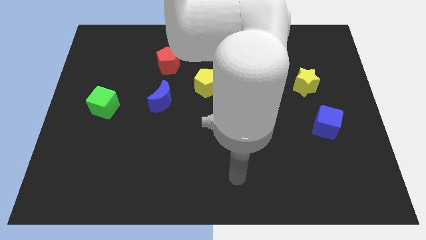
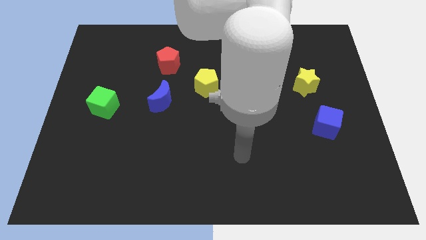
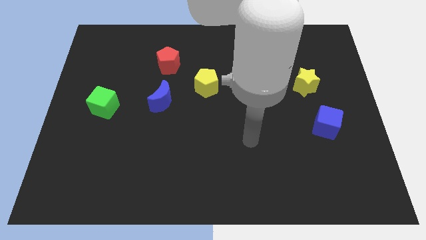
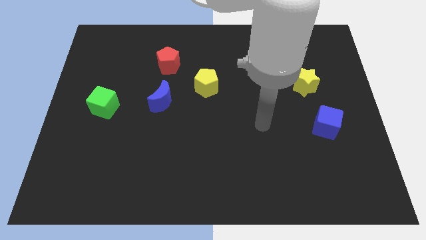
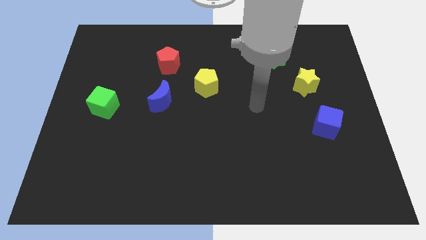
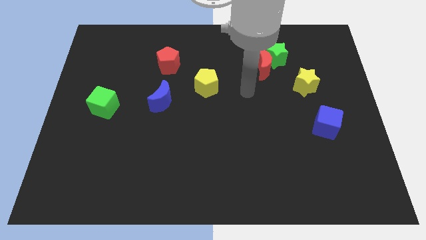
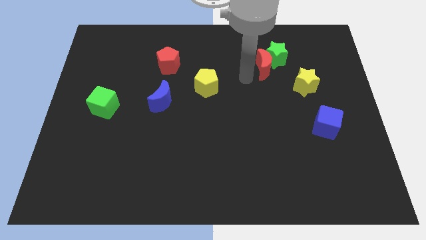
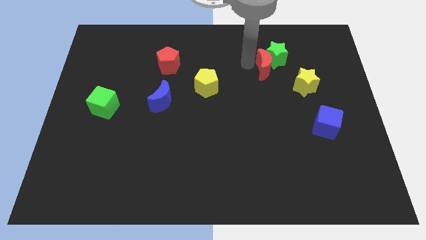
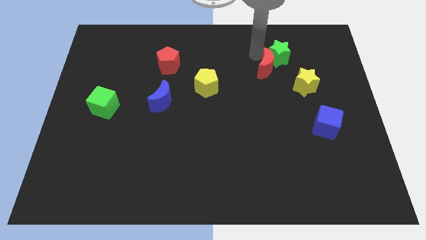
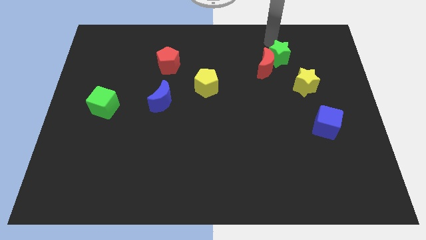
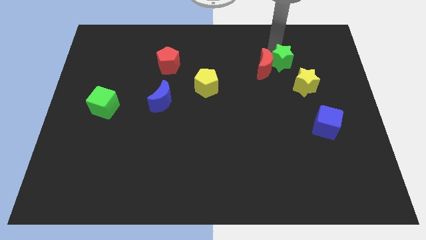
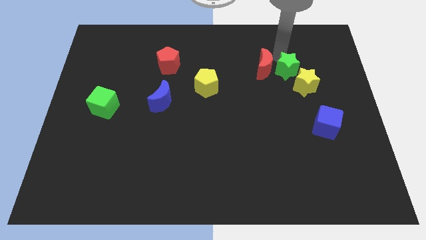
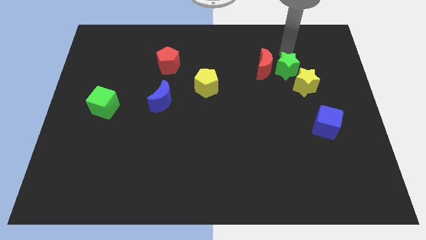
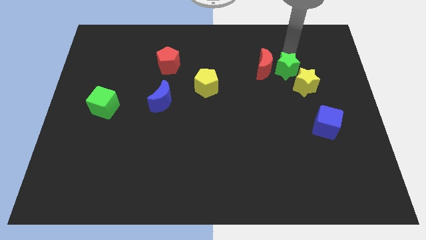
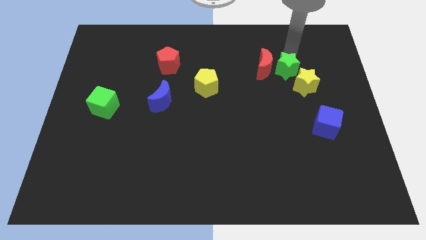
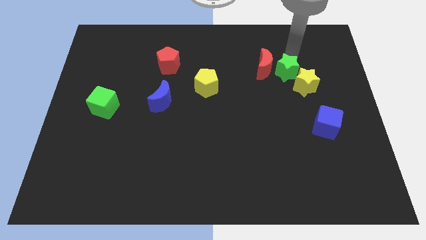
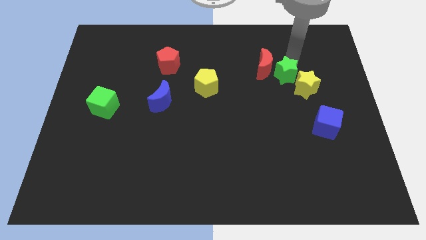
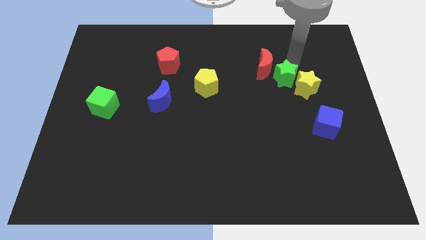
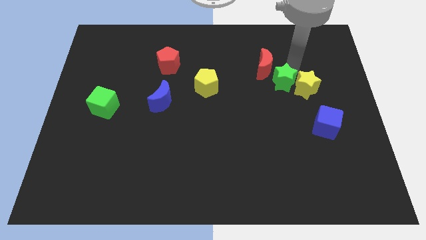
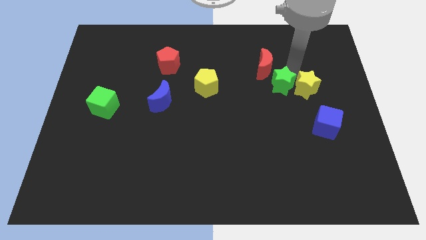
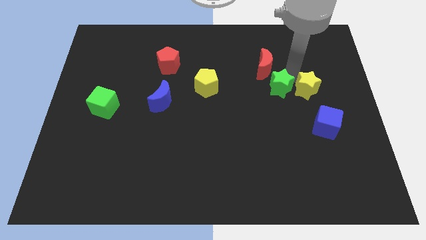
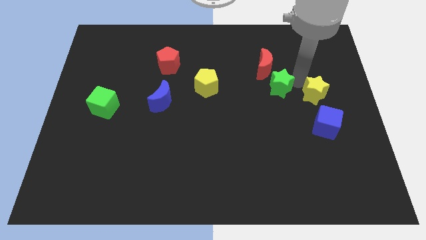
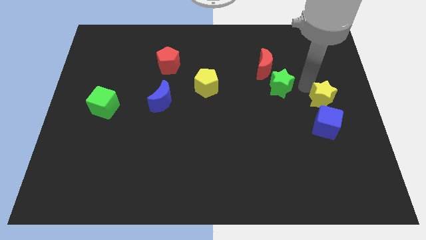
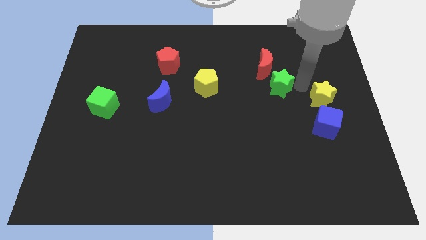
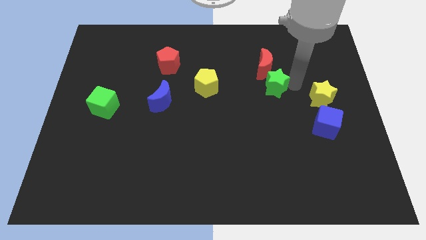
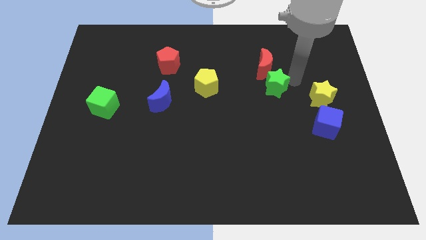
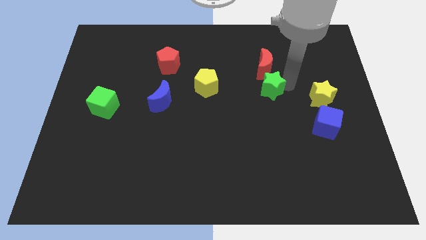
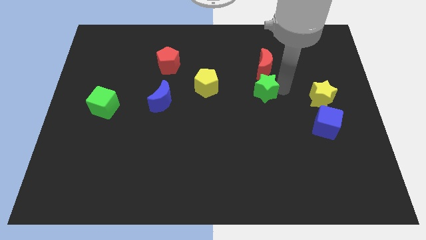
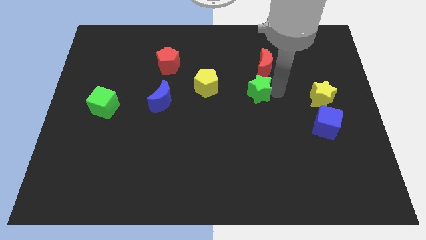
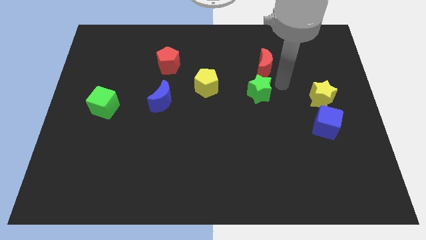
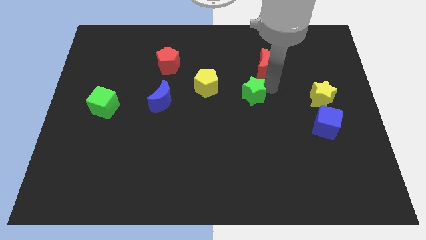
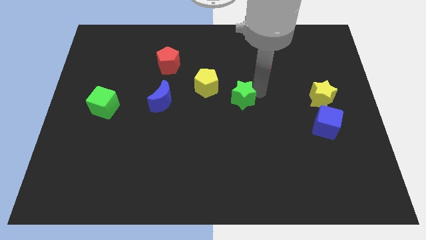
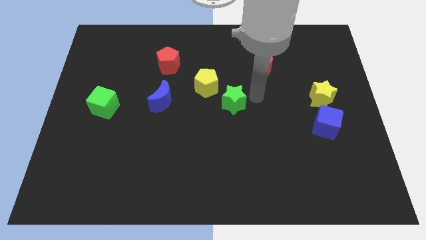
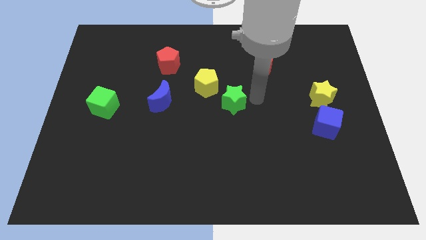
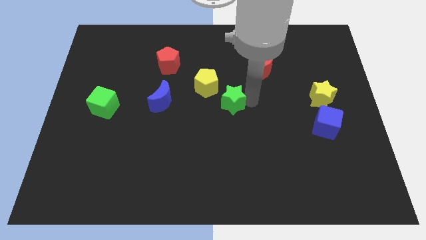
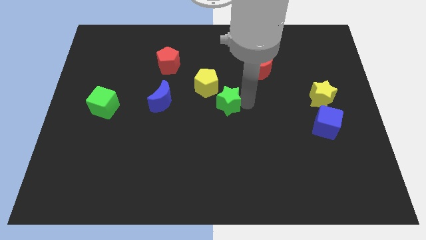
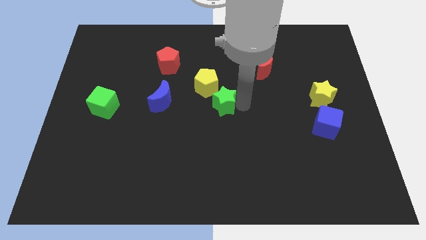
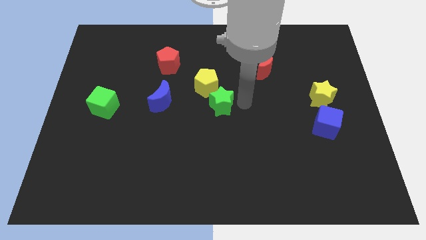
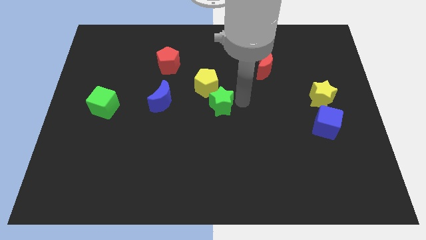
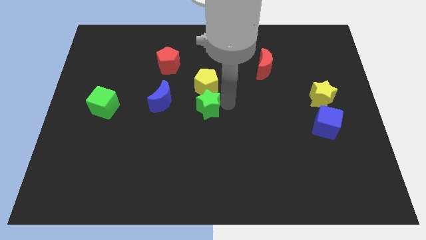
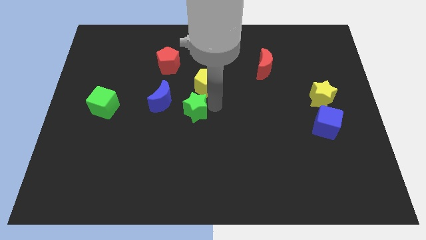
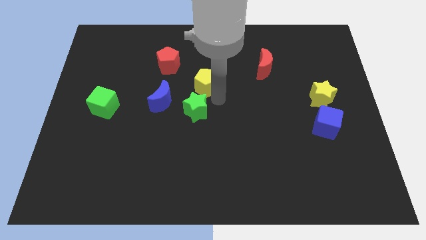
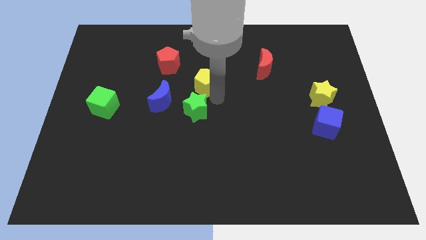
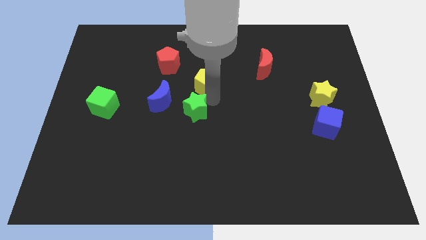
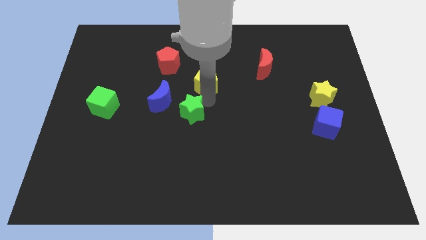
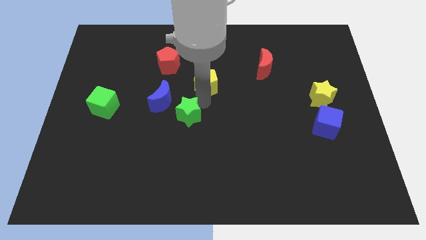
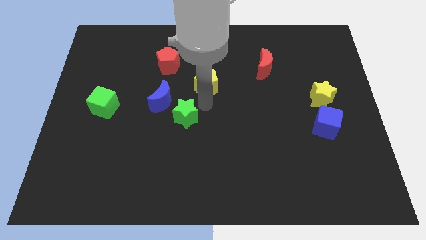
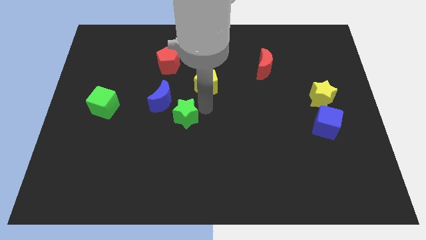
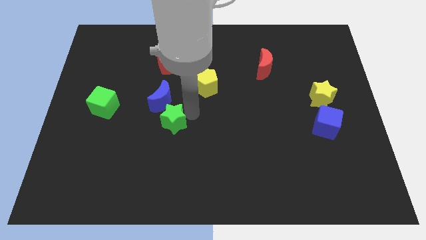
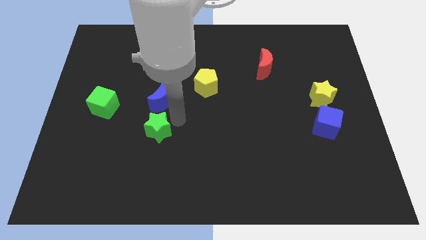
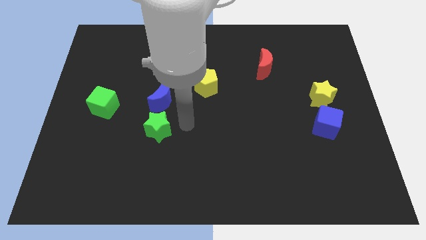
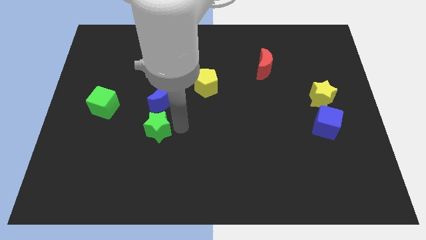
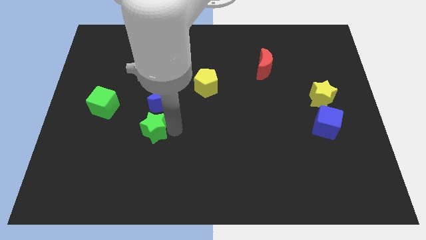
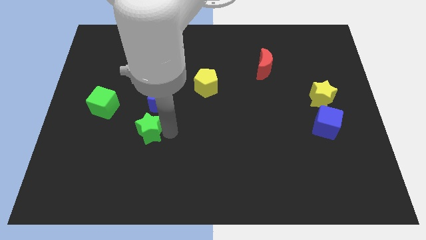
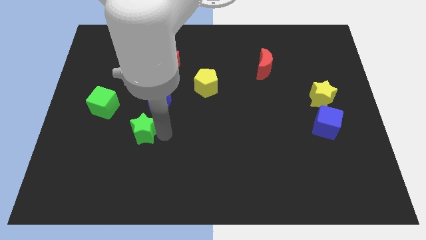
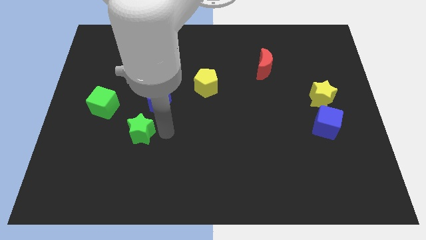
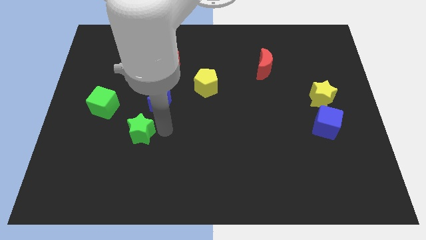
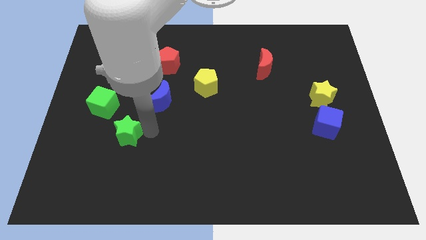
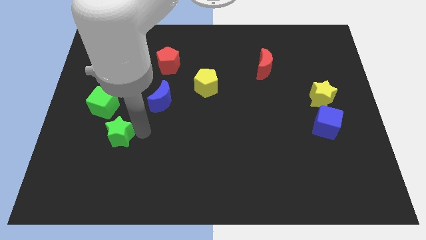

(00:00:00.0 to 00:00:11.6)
put the green star to the bottom of the green cube

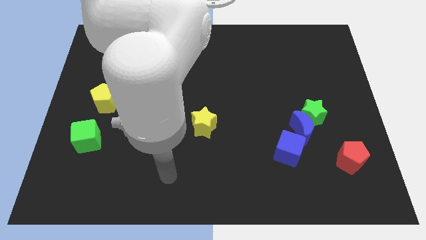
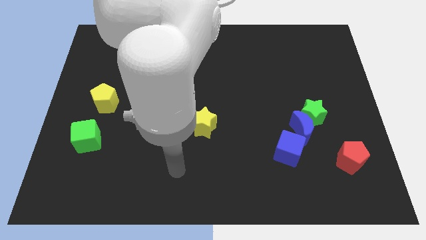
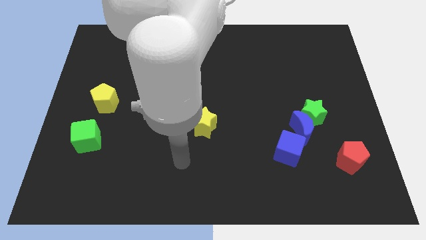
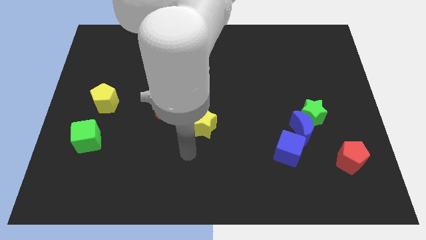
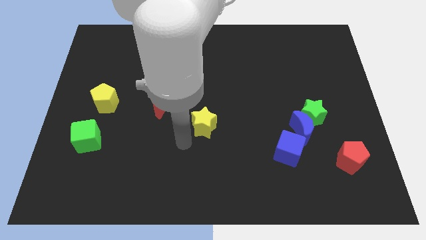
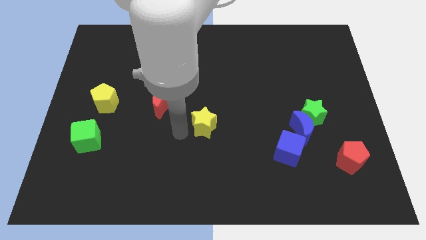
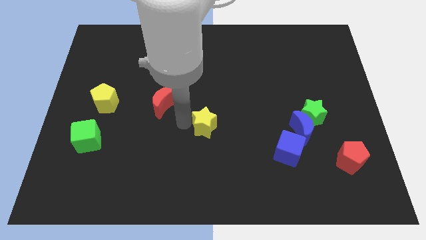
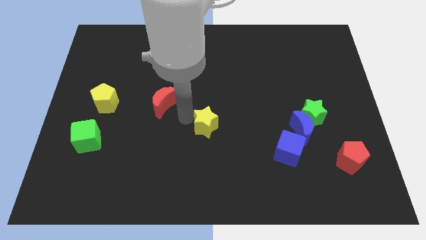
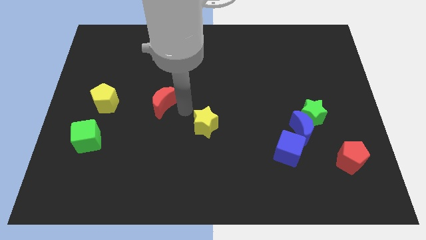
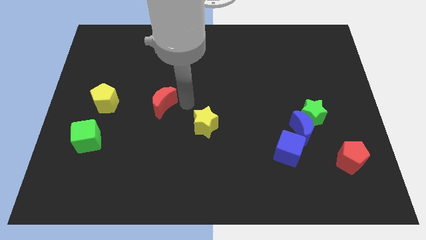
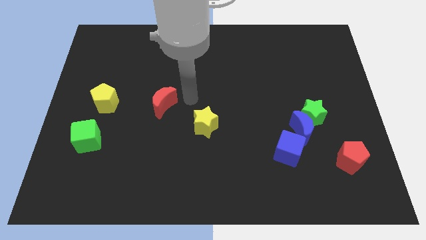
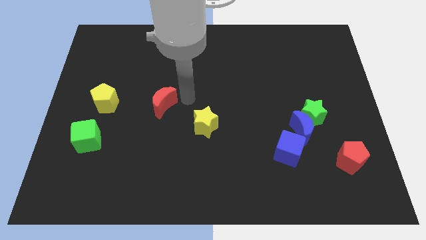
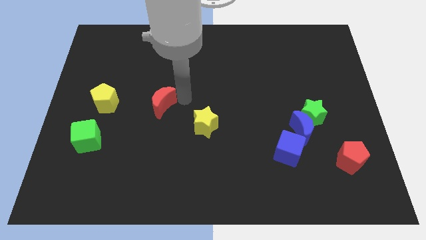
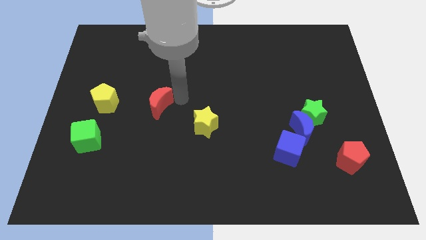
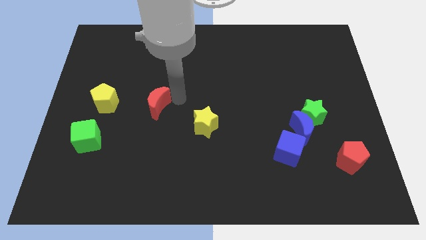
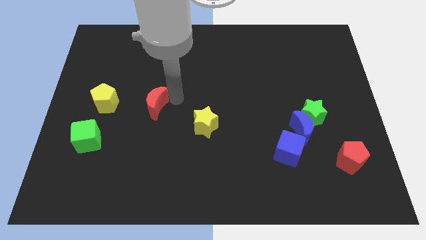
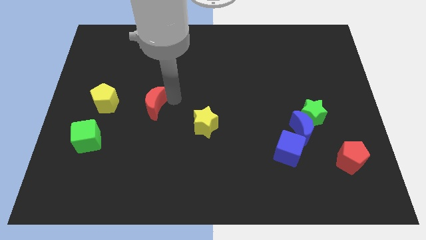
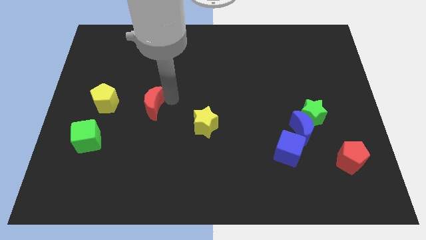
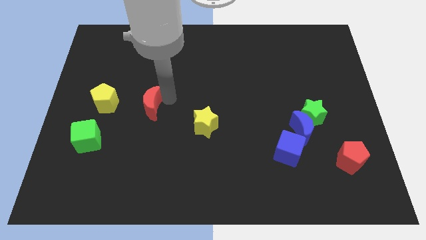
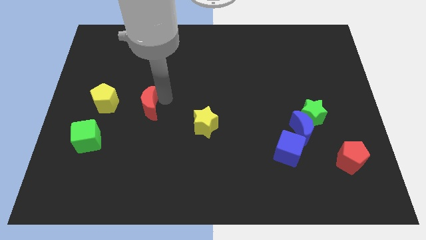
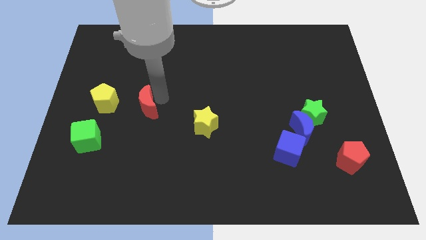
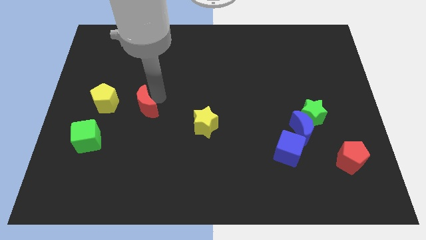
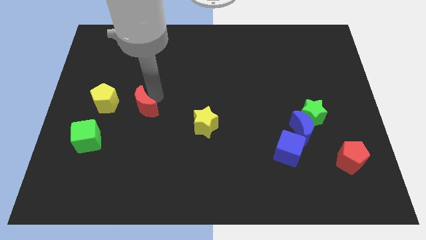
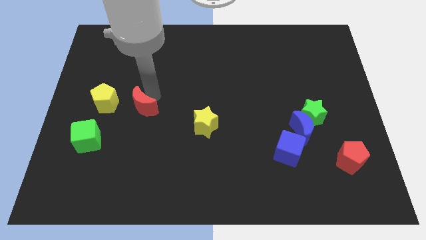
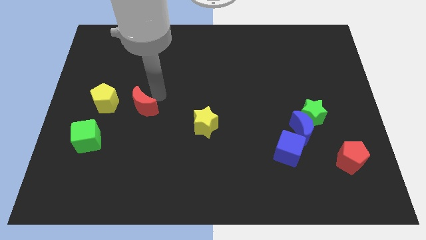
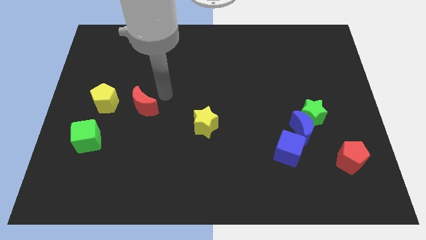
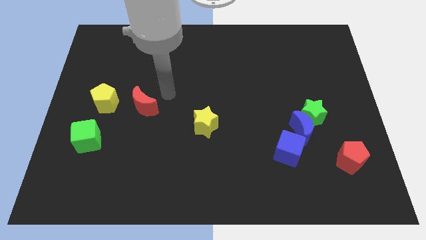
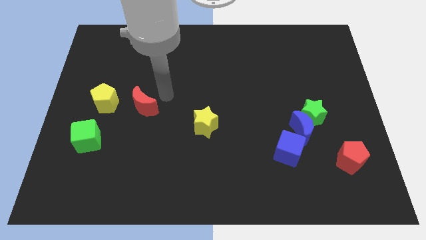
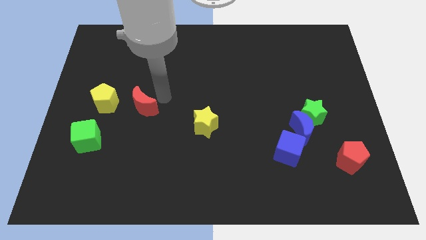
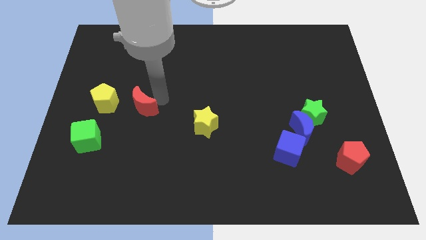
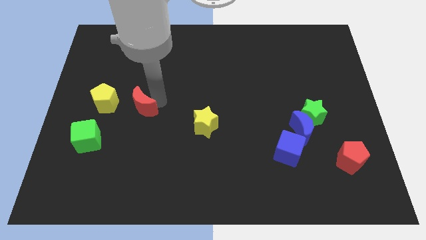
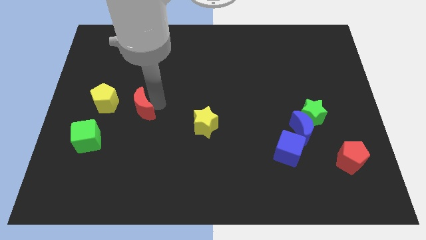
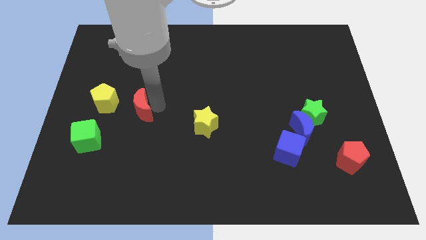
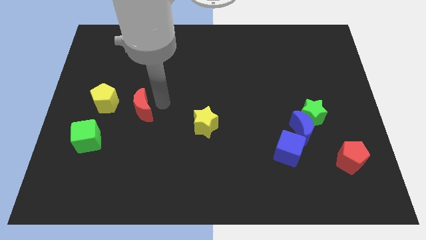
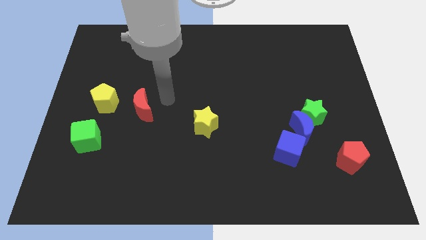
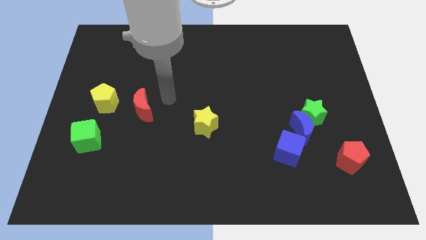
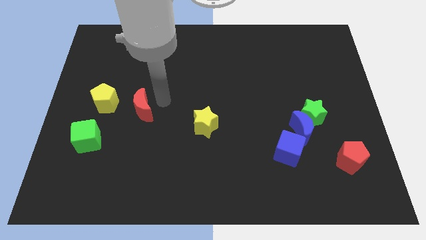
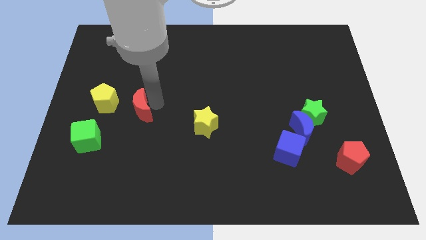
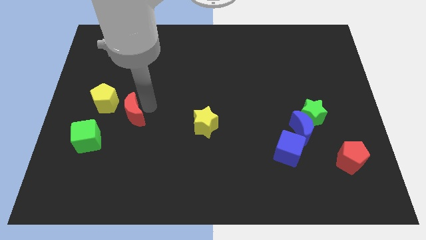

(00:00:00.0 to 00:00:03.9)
slide the red moon to the top right of the green cube
